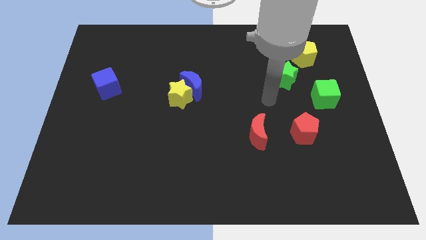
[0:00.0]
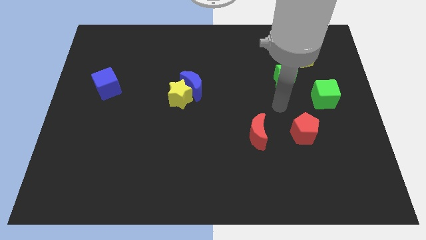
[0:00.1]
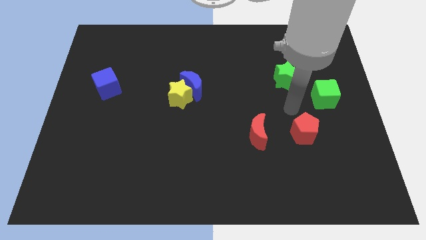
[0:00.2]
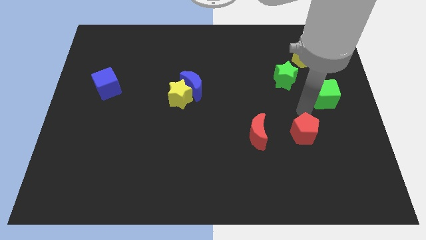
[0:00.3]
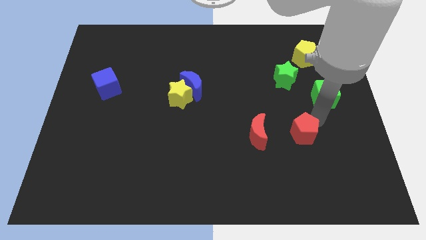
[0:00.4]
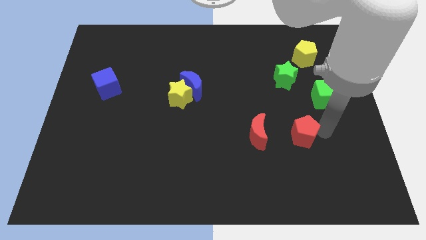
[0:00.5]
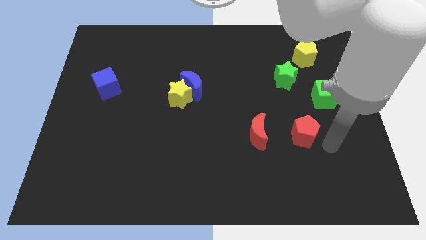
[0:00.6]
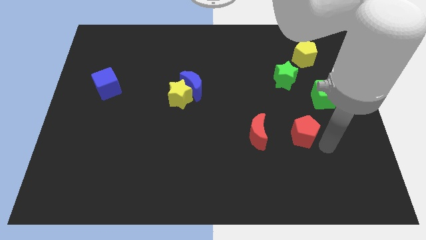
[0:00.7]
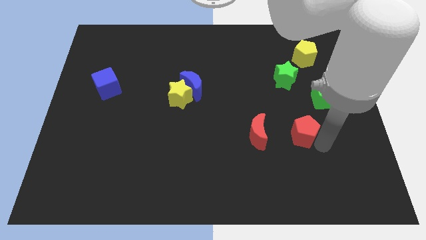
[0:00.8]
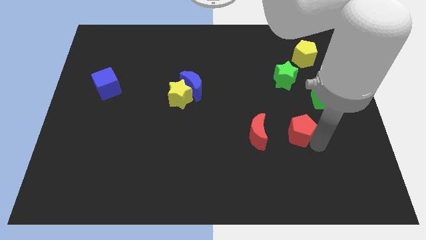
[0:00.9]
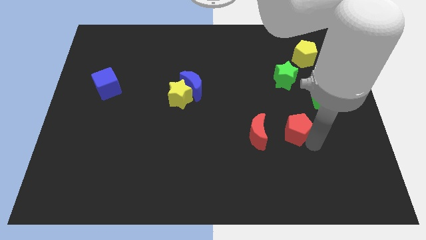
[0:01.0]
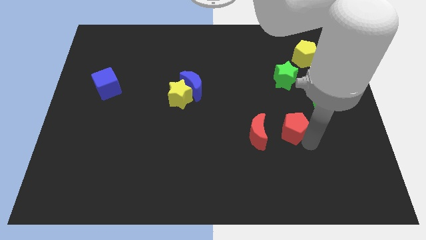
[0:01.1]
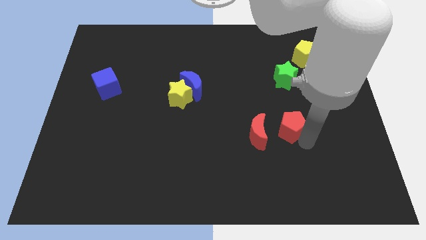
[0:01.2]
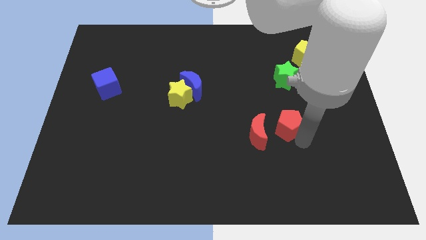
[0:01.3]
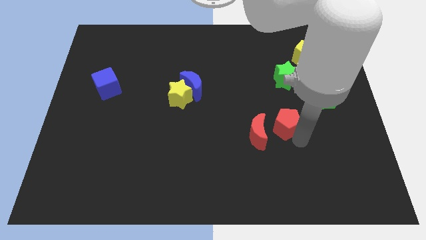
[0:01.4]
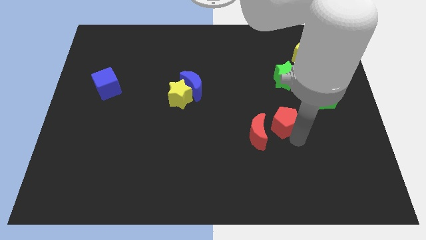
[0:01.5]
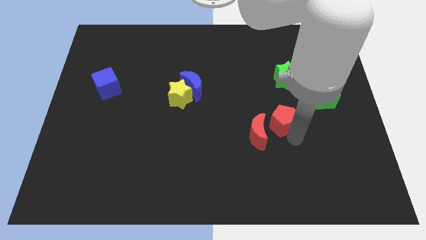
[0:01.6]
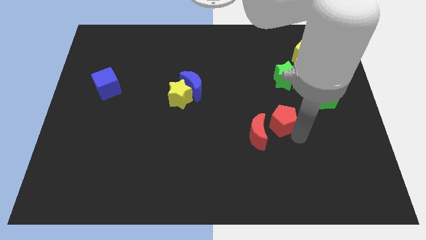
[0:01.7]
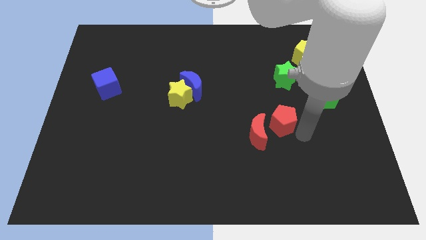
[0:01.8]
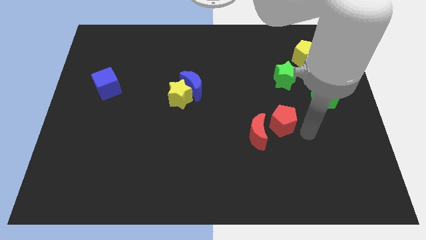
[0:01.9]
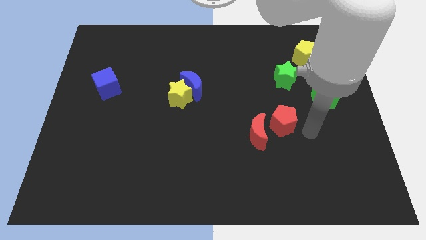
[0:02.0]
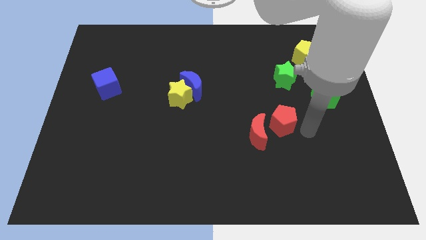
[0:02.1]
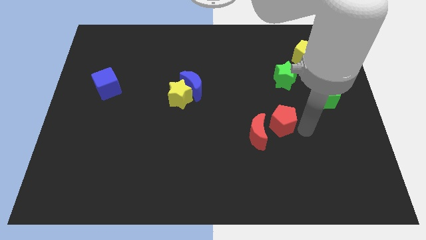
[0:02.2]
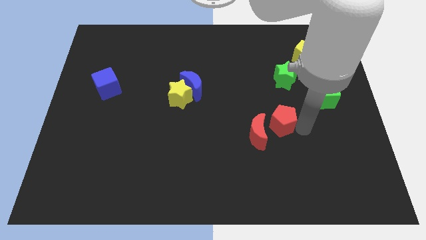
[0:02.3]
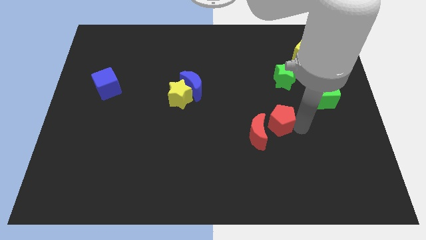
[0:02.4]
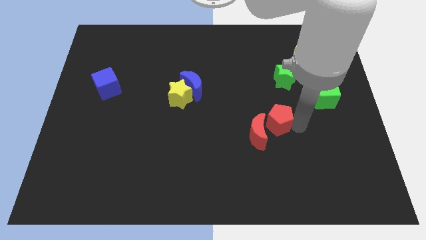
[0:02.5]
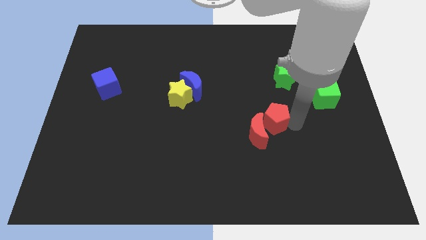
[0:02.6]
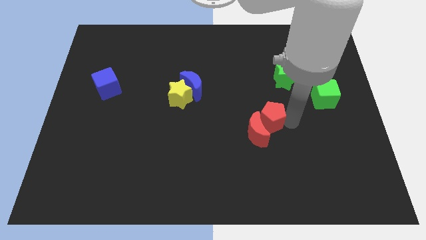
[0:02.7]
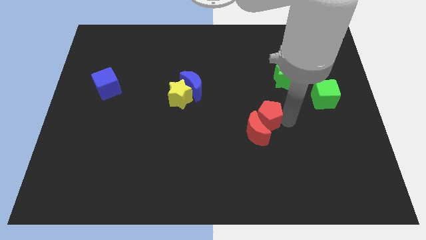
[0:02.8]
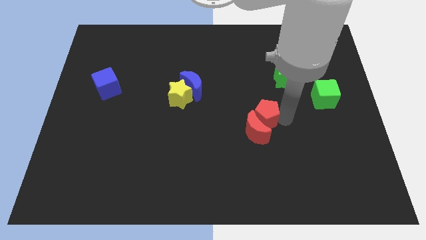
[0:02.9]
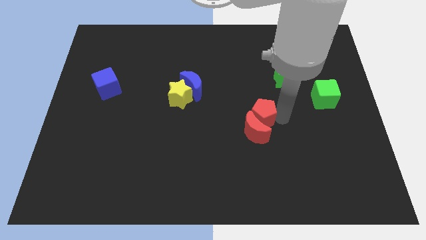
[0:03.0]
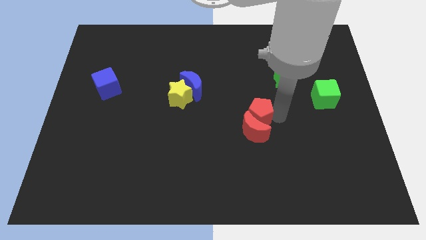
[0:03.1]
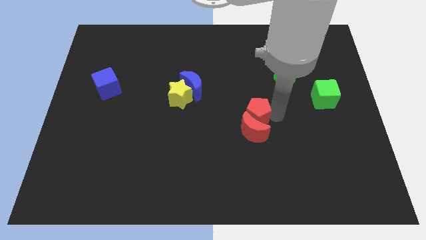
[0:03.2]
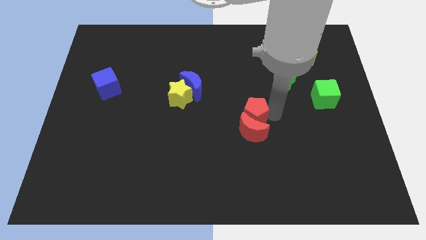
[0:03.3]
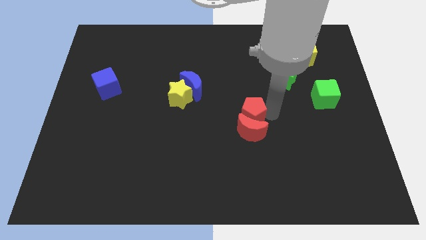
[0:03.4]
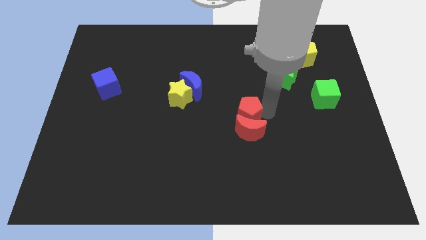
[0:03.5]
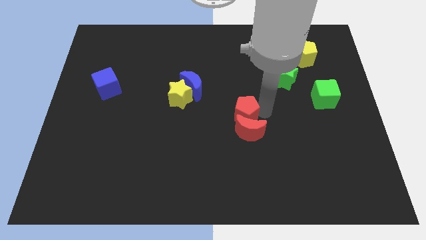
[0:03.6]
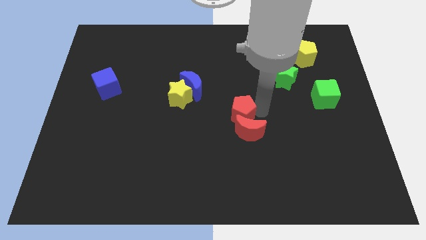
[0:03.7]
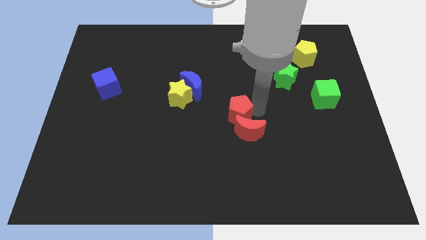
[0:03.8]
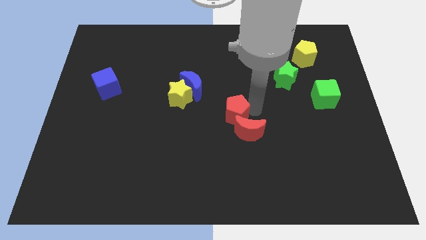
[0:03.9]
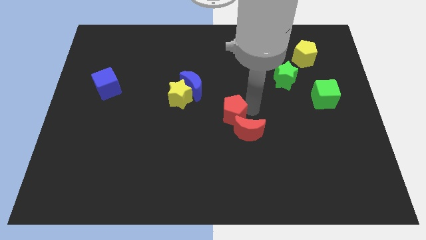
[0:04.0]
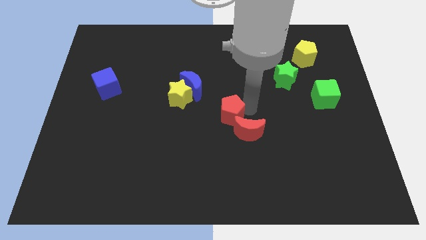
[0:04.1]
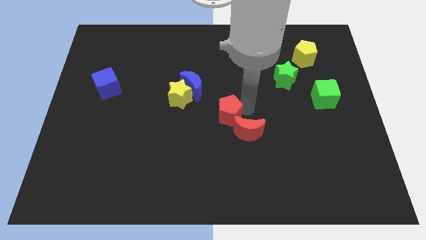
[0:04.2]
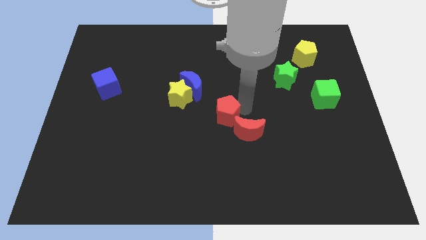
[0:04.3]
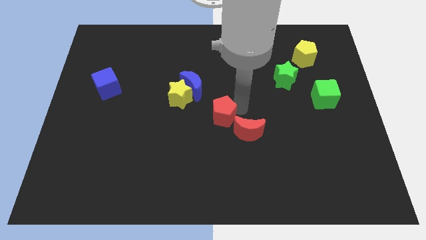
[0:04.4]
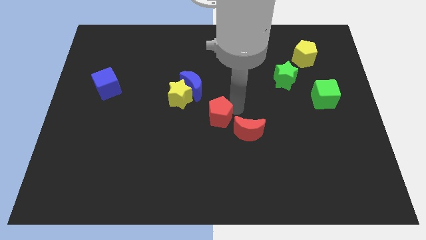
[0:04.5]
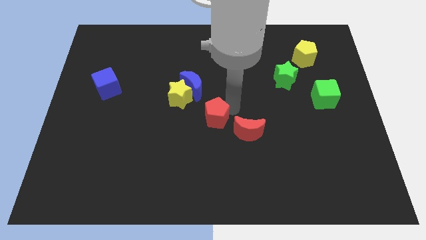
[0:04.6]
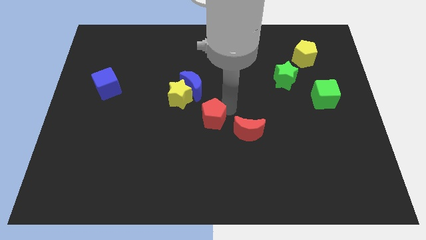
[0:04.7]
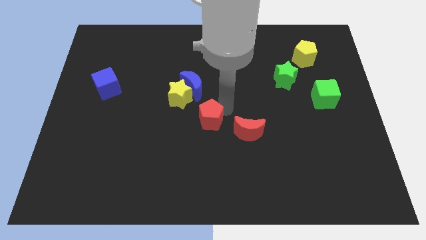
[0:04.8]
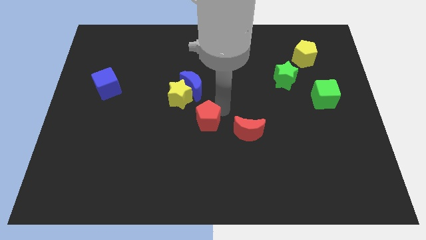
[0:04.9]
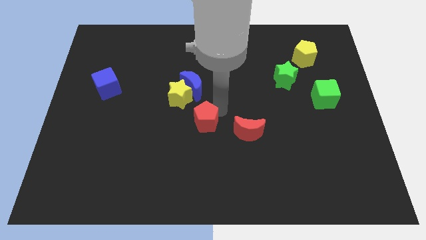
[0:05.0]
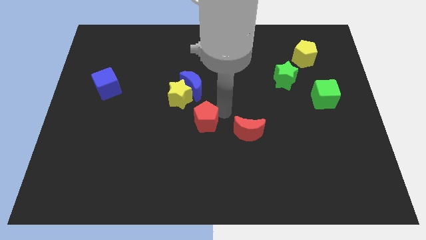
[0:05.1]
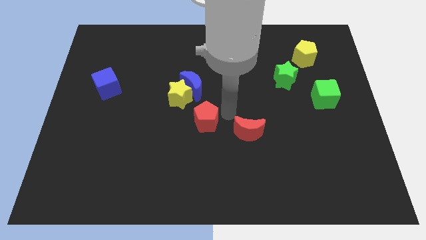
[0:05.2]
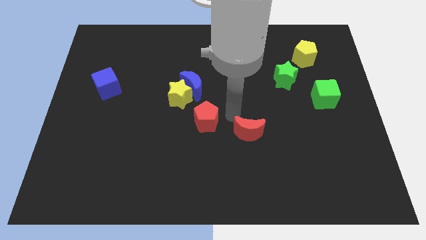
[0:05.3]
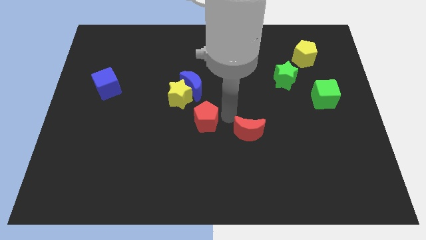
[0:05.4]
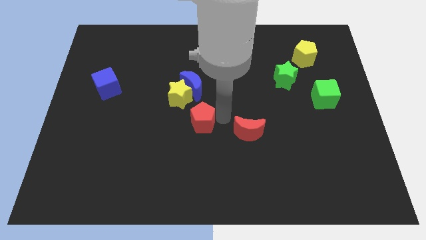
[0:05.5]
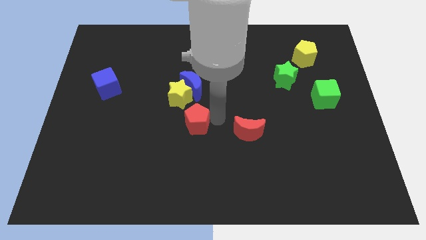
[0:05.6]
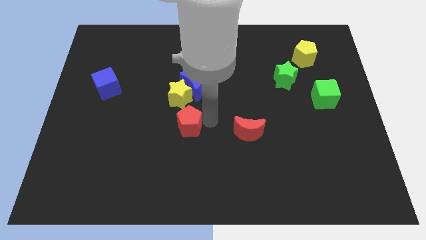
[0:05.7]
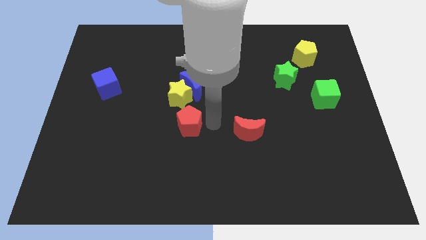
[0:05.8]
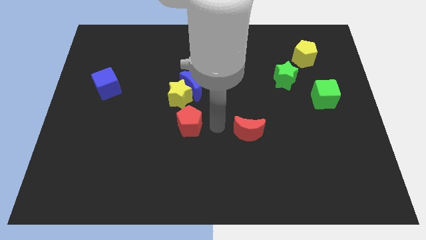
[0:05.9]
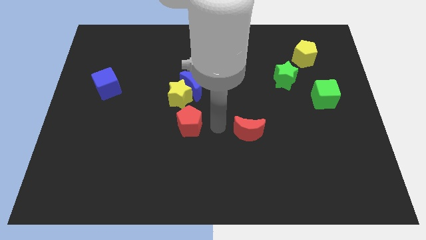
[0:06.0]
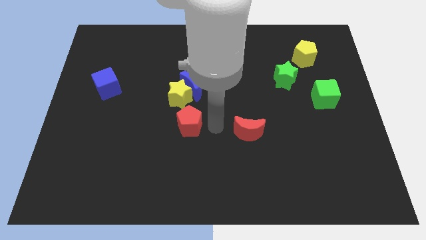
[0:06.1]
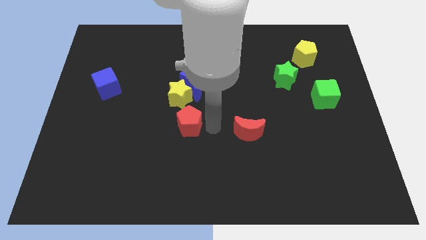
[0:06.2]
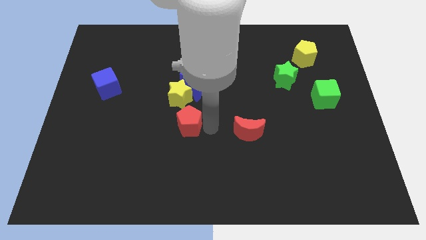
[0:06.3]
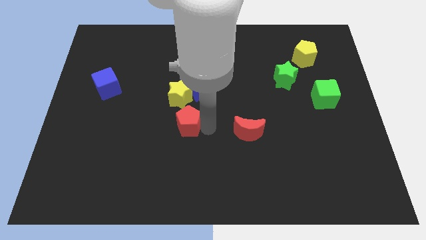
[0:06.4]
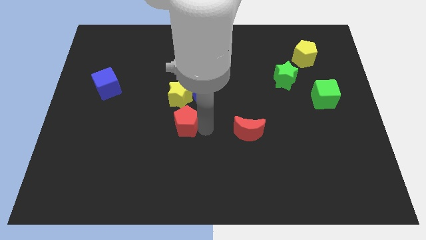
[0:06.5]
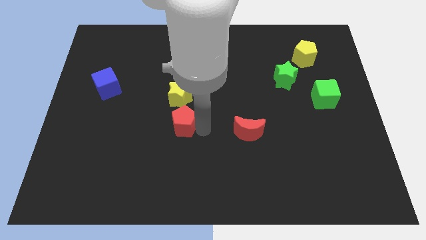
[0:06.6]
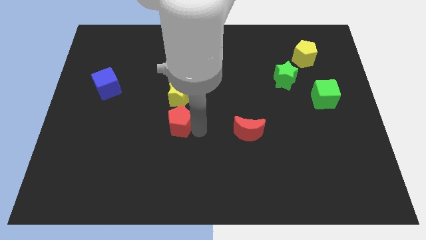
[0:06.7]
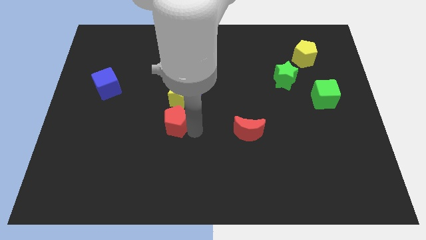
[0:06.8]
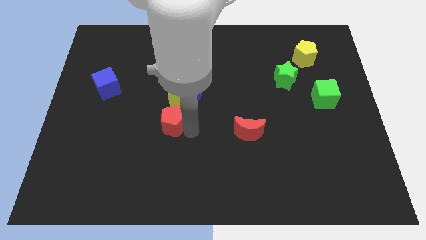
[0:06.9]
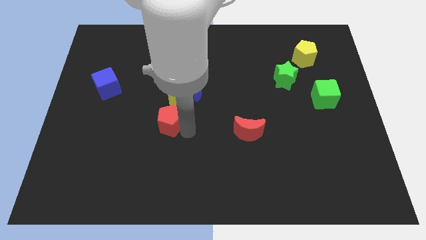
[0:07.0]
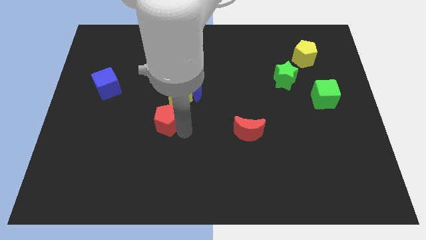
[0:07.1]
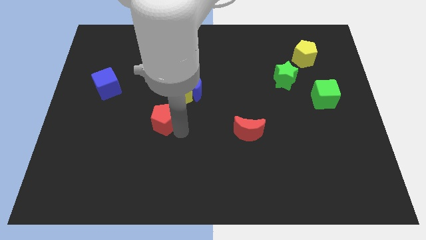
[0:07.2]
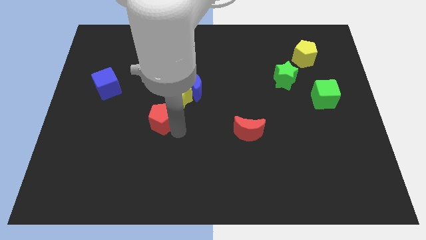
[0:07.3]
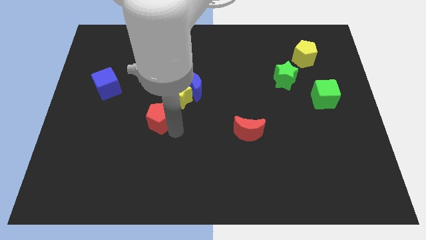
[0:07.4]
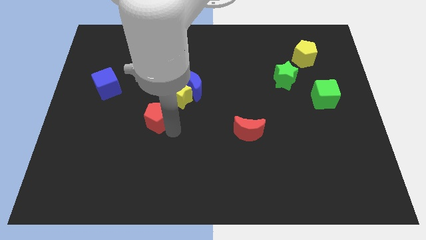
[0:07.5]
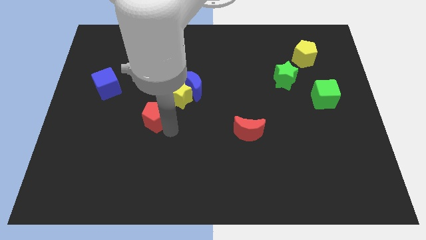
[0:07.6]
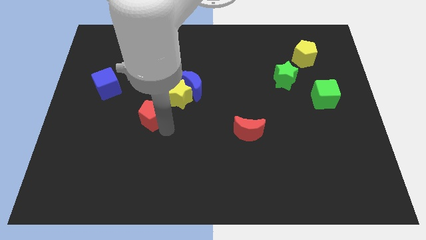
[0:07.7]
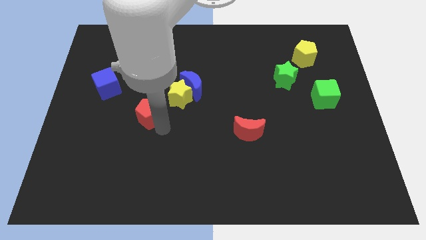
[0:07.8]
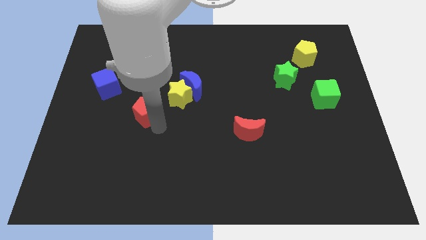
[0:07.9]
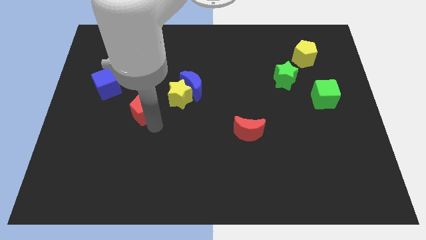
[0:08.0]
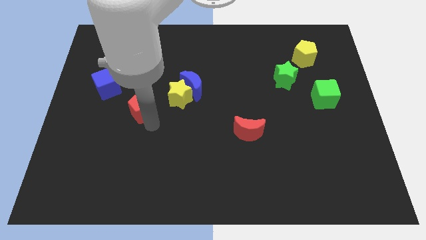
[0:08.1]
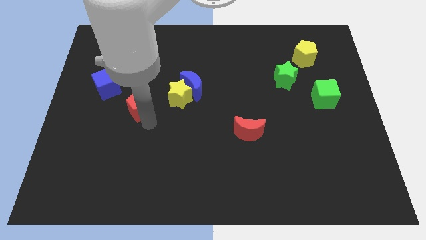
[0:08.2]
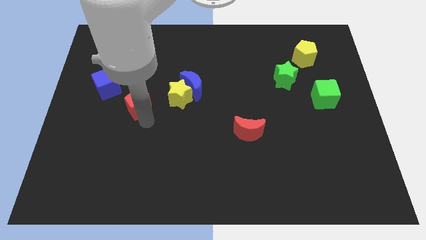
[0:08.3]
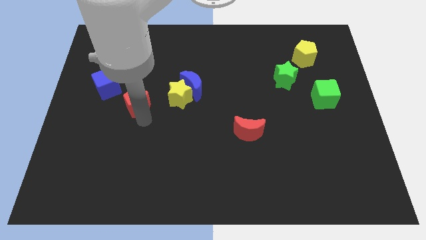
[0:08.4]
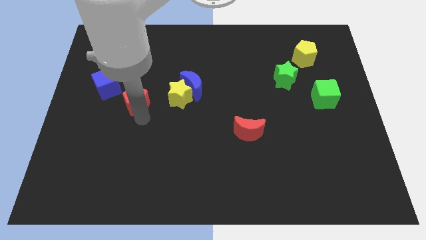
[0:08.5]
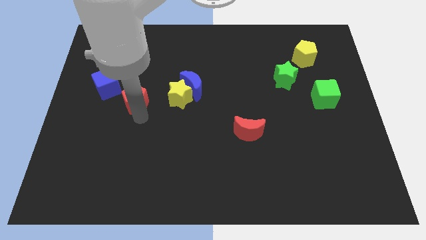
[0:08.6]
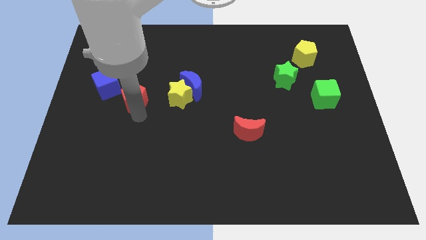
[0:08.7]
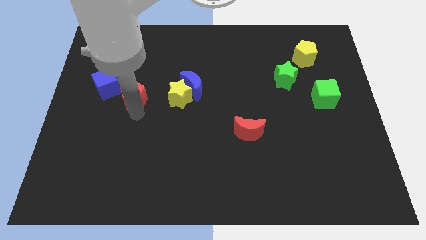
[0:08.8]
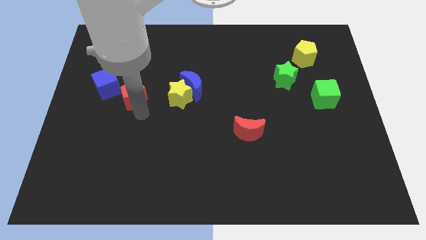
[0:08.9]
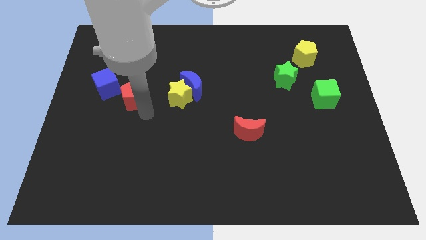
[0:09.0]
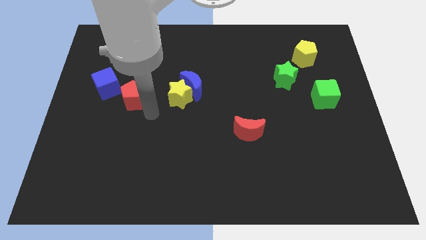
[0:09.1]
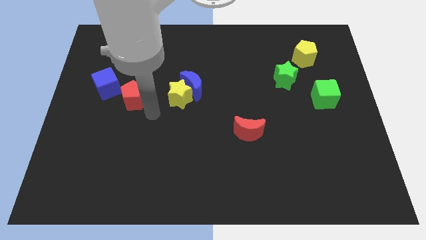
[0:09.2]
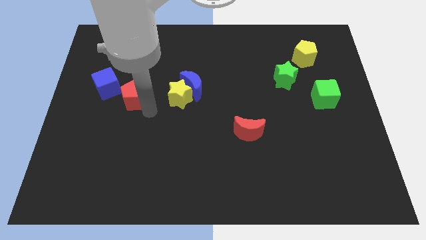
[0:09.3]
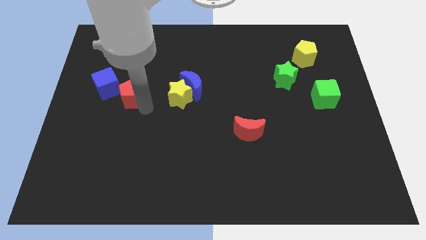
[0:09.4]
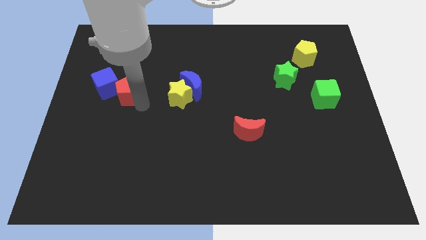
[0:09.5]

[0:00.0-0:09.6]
put the red pentagon next to the blue cube
